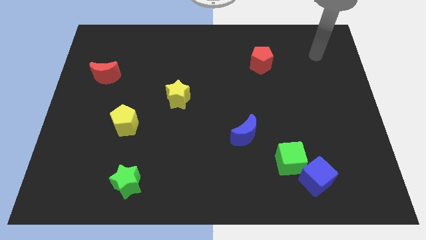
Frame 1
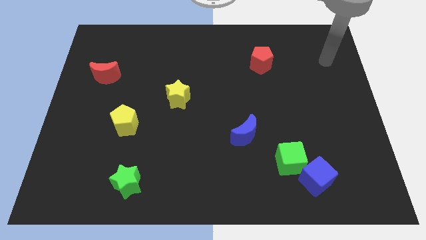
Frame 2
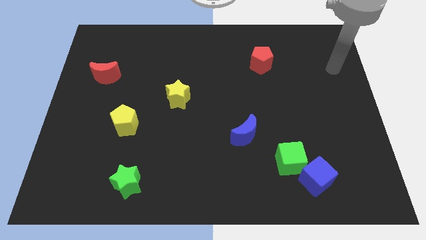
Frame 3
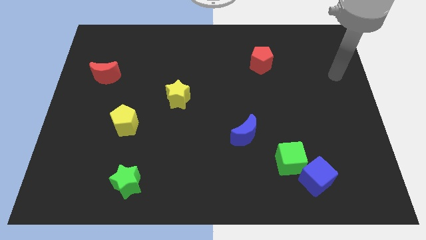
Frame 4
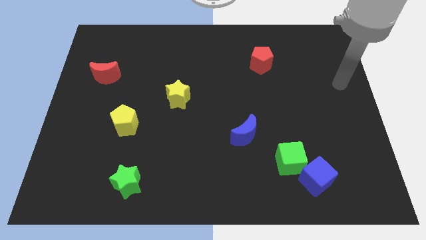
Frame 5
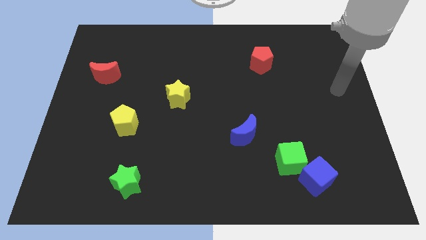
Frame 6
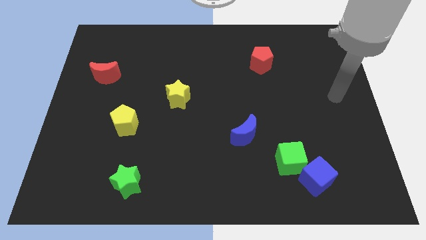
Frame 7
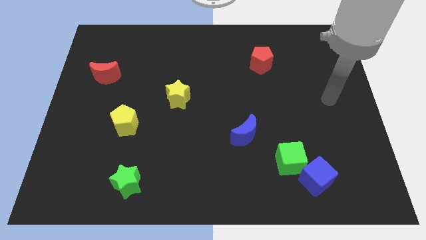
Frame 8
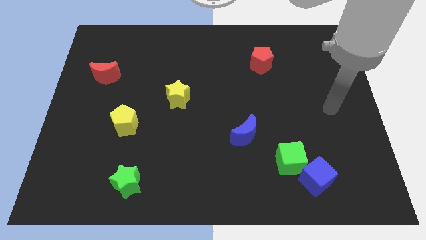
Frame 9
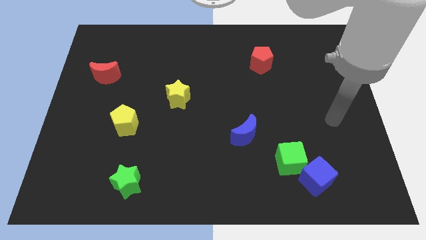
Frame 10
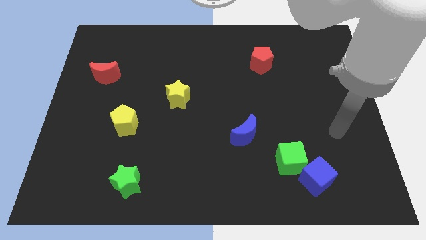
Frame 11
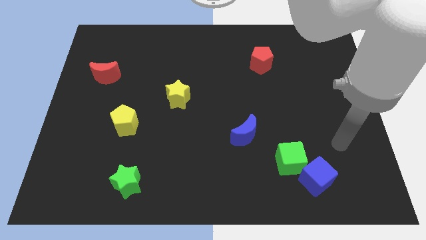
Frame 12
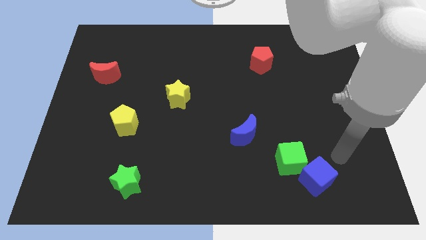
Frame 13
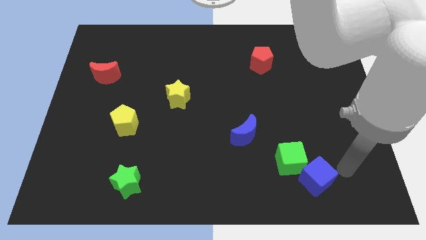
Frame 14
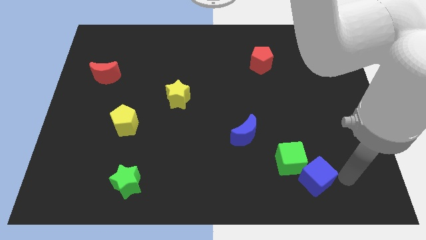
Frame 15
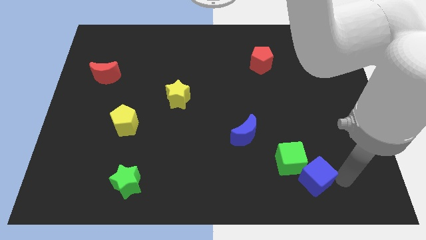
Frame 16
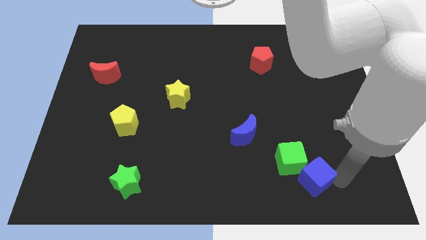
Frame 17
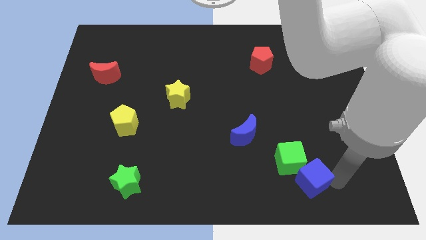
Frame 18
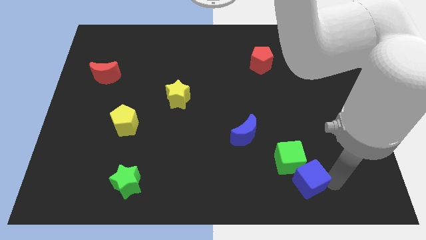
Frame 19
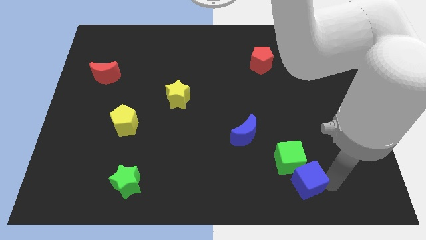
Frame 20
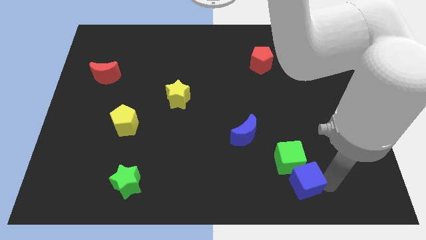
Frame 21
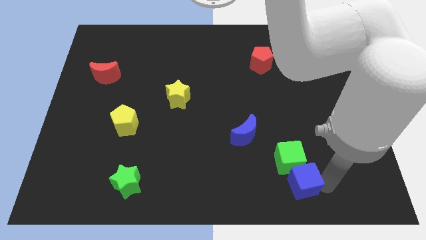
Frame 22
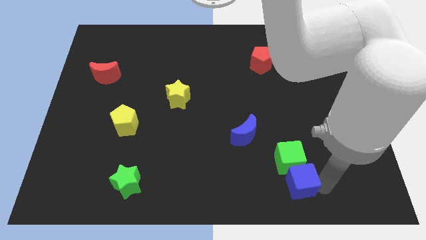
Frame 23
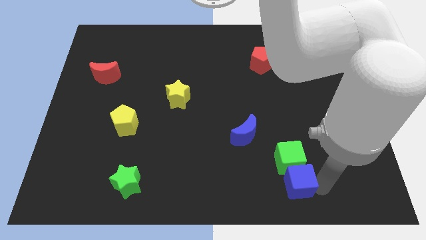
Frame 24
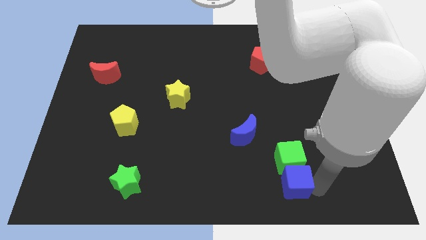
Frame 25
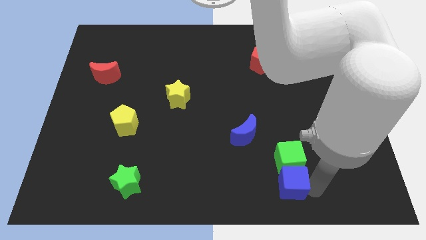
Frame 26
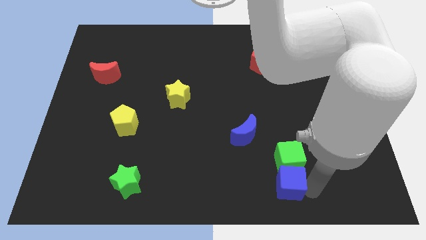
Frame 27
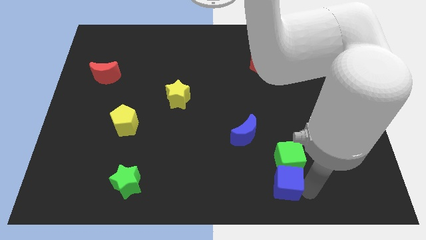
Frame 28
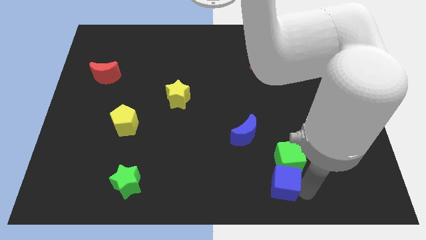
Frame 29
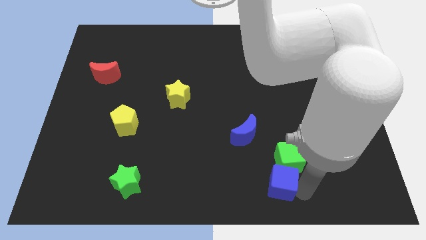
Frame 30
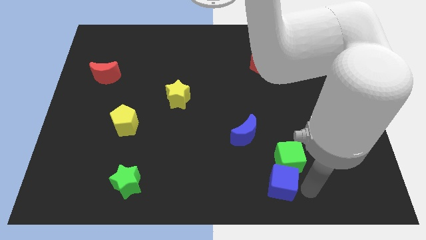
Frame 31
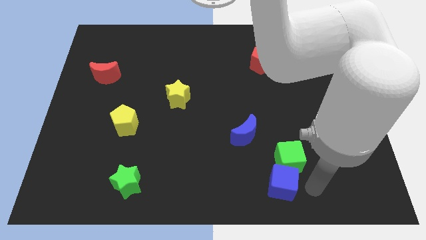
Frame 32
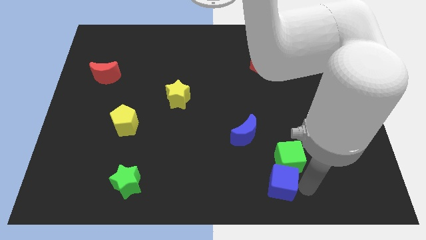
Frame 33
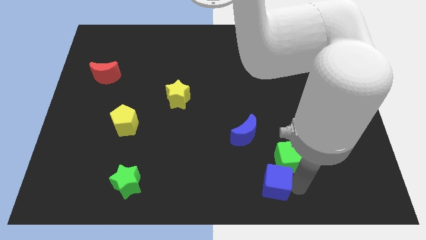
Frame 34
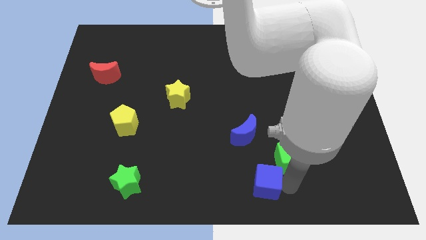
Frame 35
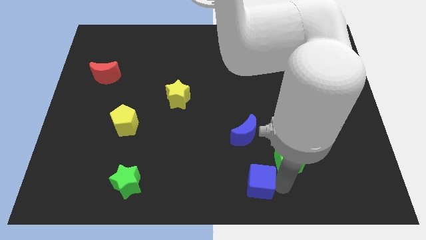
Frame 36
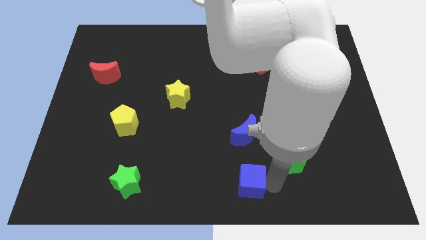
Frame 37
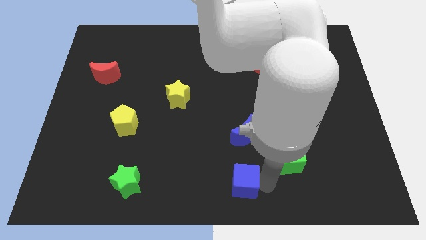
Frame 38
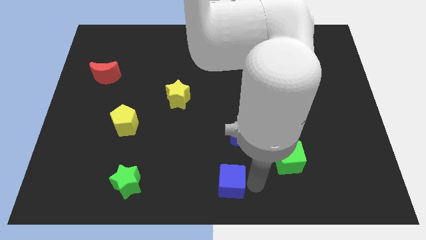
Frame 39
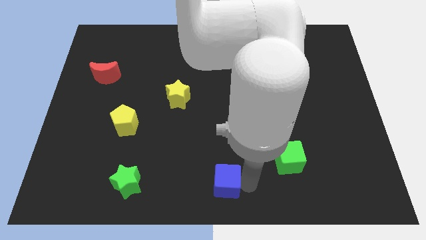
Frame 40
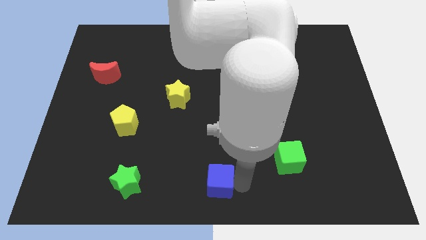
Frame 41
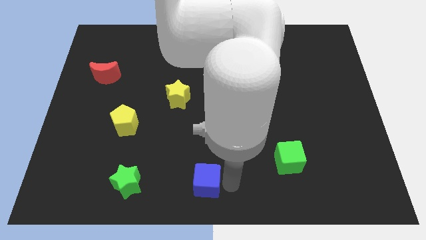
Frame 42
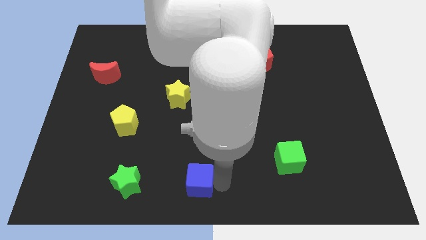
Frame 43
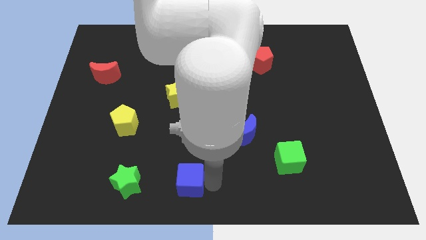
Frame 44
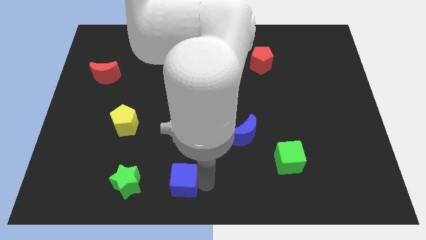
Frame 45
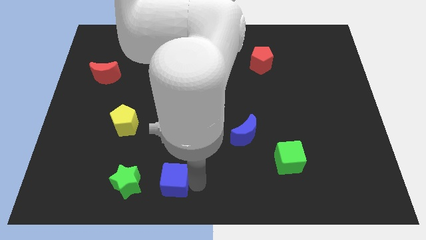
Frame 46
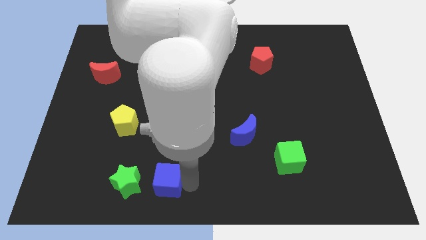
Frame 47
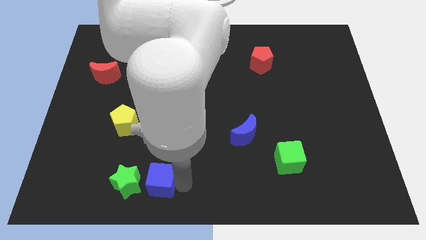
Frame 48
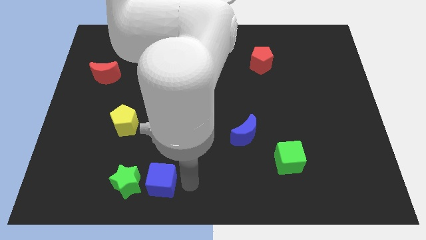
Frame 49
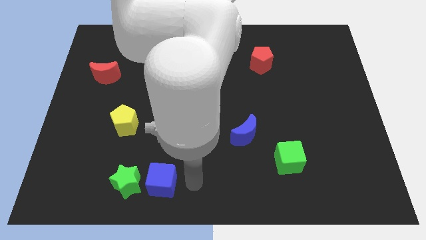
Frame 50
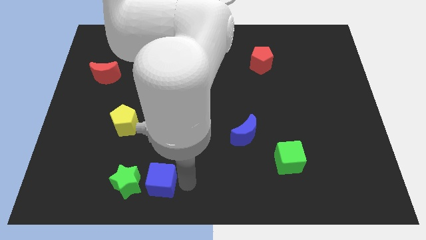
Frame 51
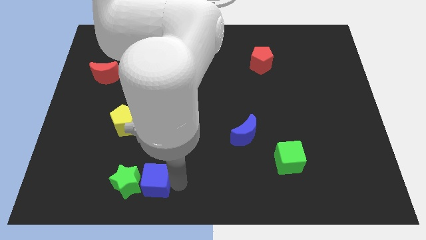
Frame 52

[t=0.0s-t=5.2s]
move the blue cube towards the green star

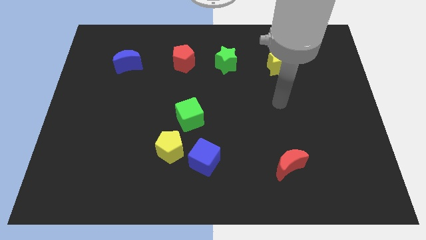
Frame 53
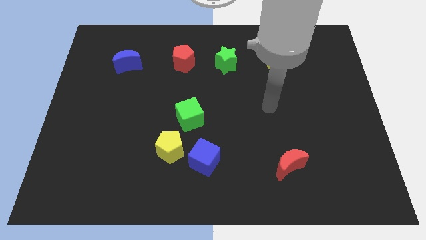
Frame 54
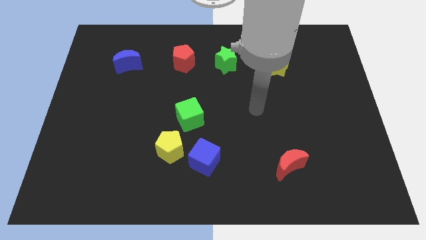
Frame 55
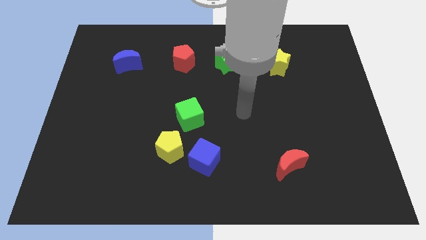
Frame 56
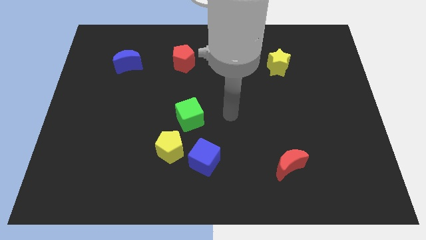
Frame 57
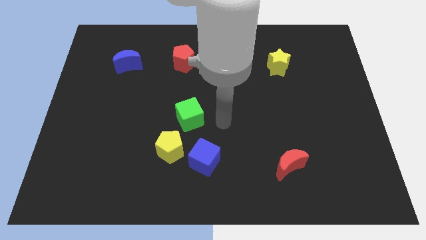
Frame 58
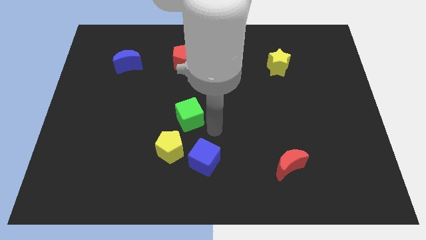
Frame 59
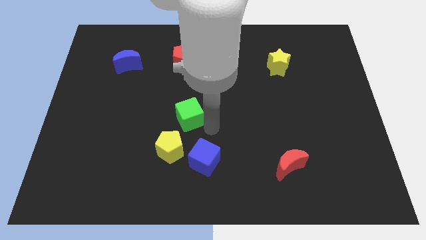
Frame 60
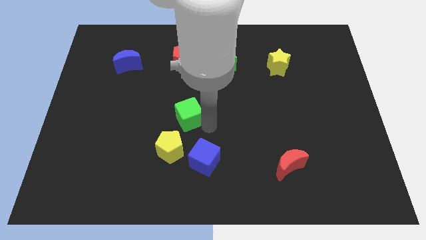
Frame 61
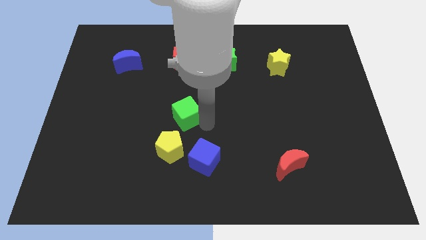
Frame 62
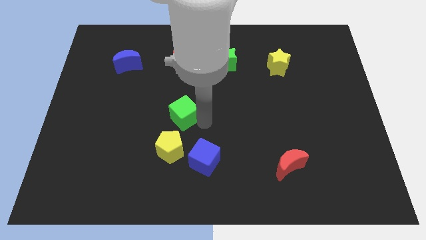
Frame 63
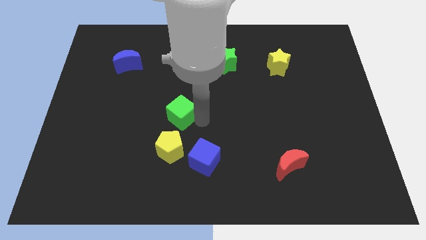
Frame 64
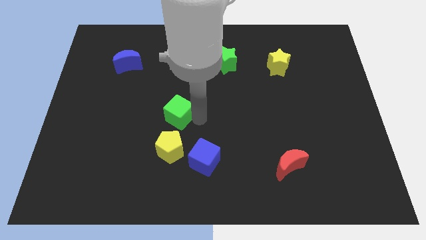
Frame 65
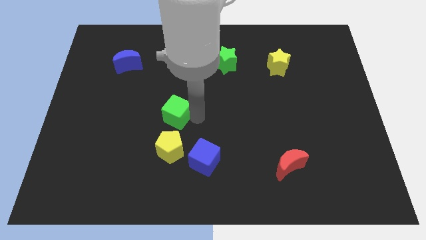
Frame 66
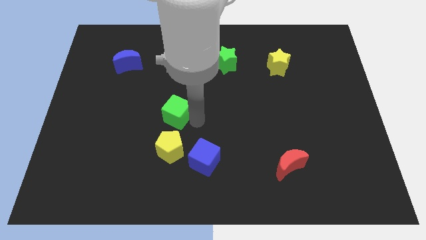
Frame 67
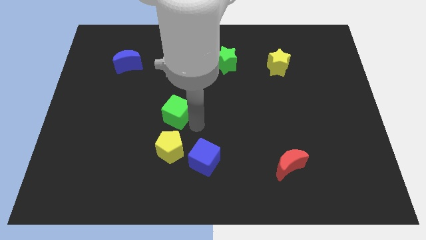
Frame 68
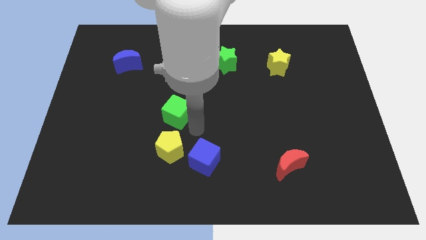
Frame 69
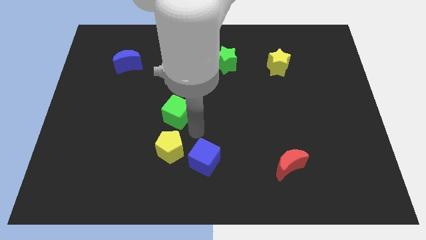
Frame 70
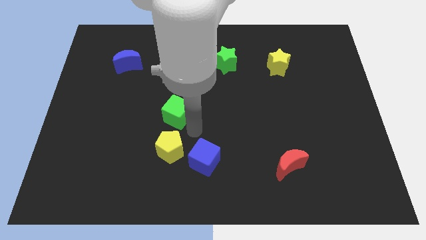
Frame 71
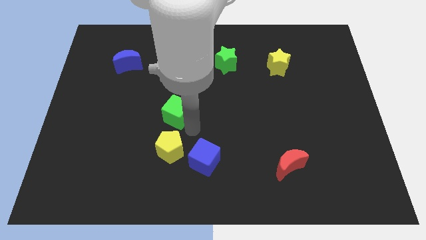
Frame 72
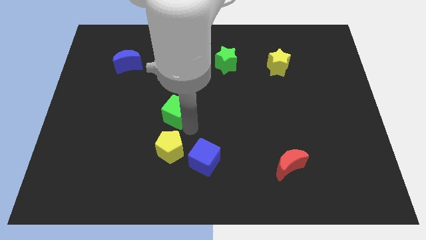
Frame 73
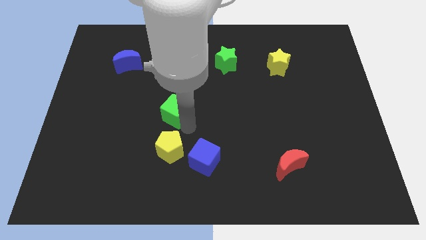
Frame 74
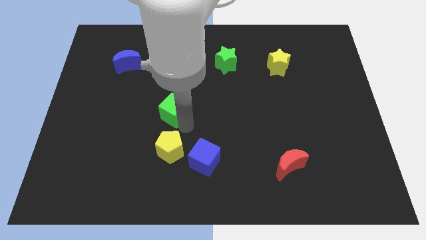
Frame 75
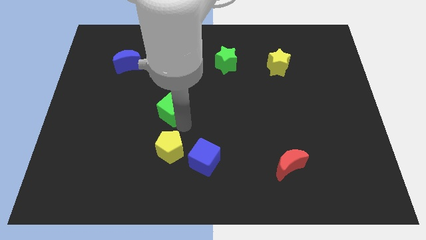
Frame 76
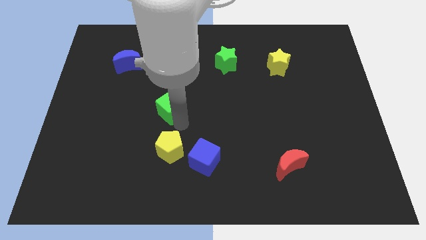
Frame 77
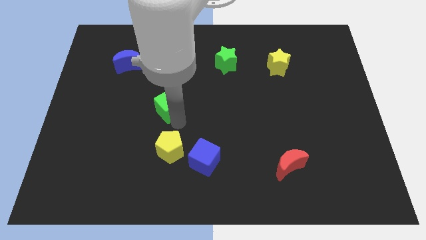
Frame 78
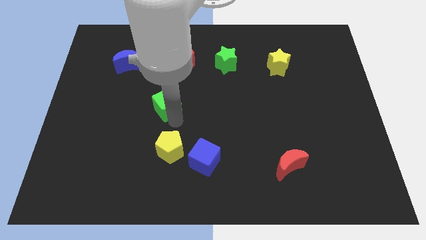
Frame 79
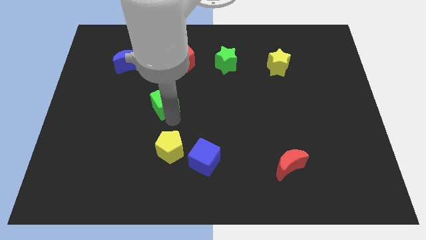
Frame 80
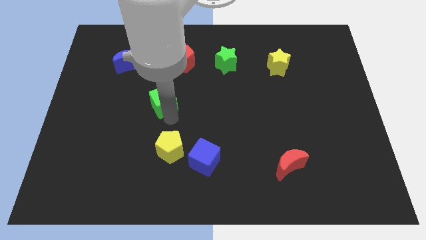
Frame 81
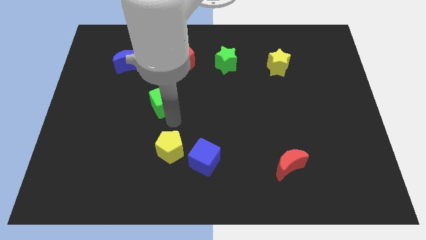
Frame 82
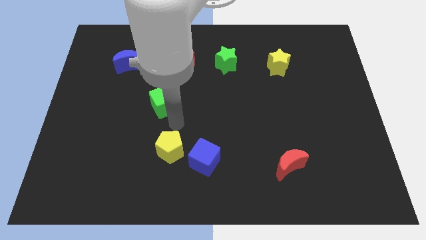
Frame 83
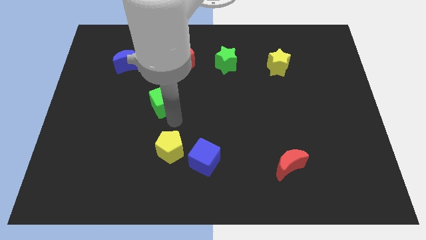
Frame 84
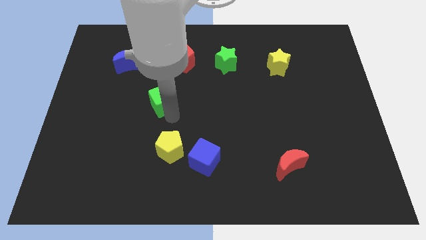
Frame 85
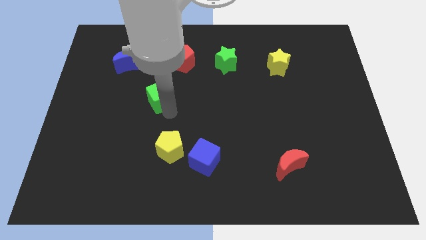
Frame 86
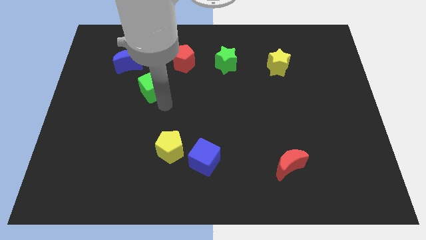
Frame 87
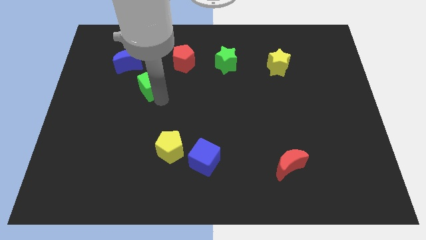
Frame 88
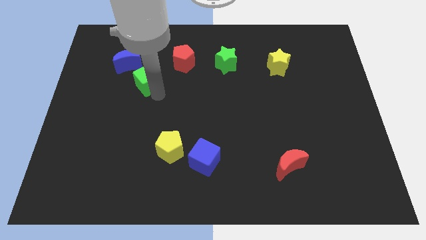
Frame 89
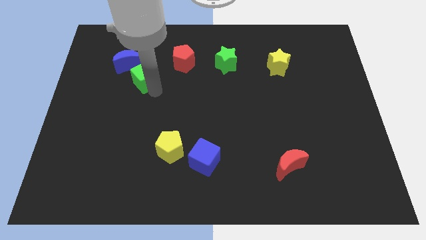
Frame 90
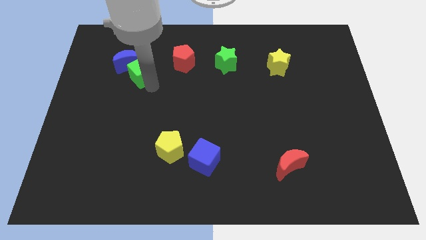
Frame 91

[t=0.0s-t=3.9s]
push the green cube close to the blue moon
